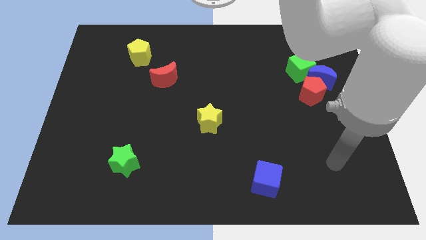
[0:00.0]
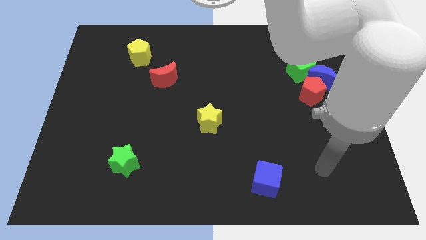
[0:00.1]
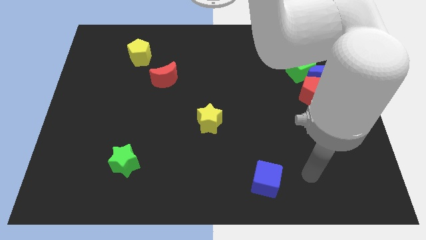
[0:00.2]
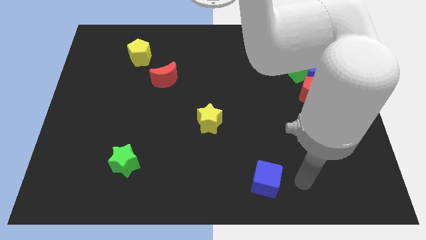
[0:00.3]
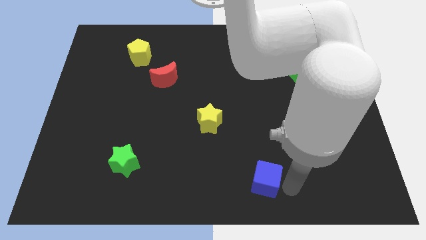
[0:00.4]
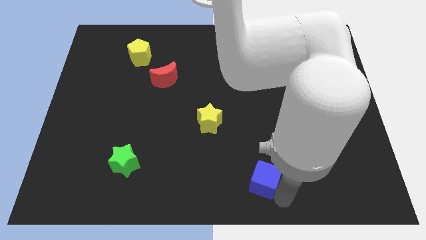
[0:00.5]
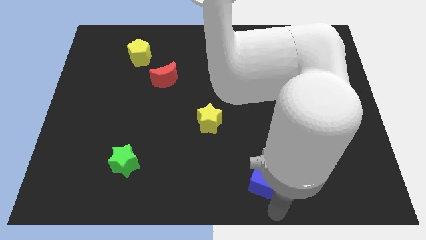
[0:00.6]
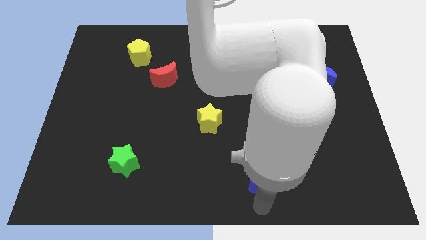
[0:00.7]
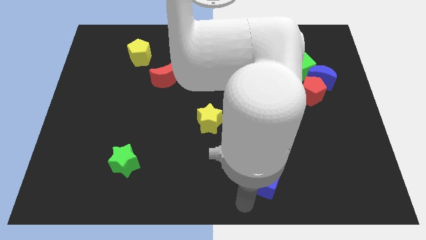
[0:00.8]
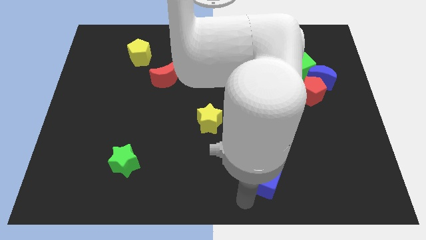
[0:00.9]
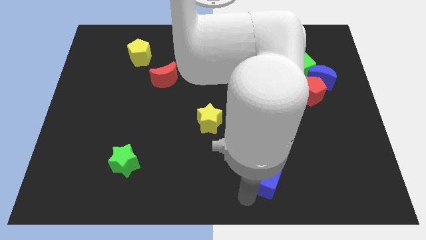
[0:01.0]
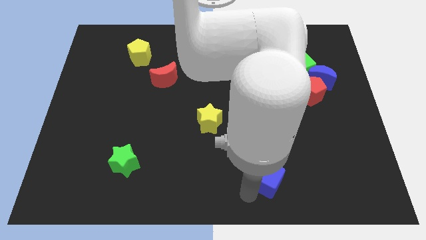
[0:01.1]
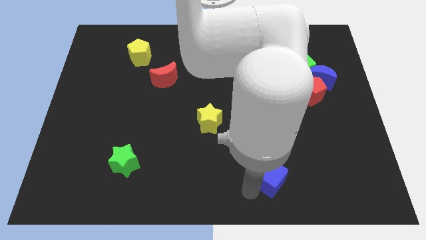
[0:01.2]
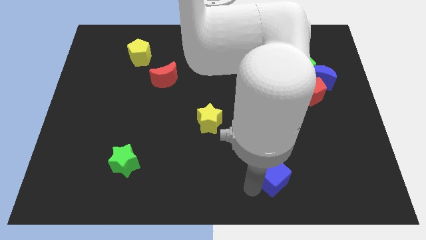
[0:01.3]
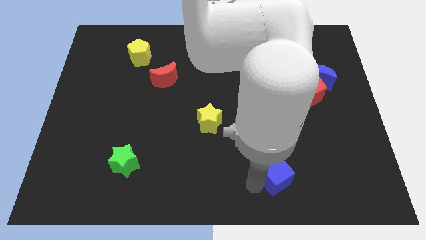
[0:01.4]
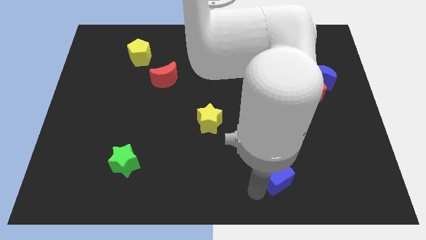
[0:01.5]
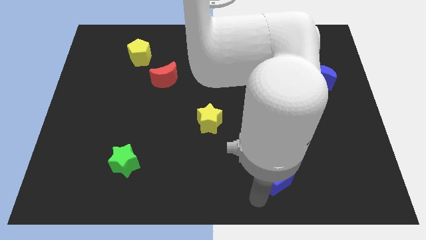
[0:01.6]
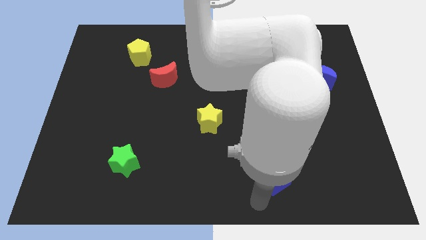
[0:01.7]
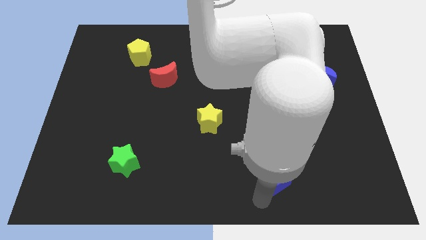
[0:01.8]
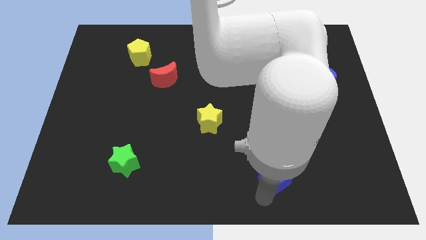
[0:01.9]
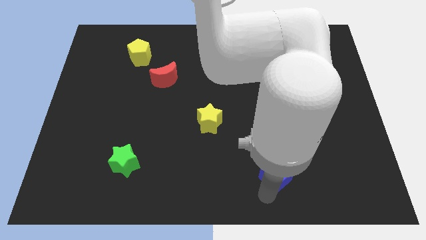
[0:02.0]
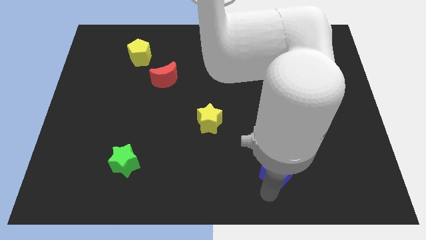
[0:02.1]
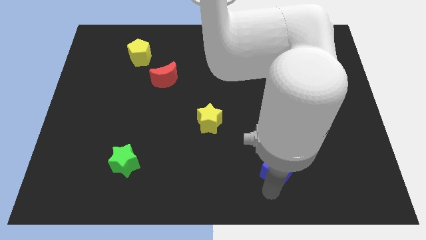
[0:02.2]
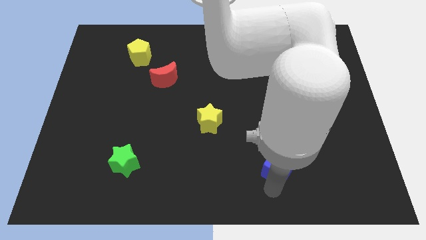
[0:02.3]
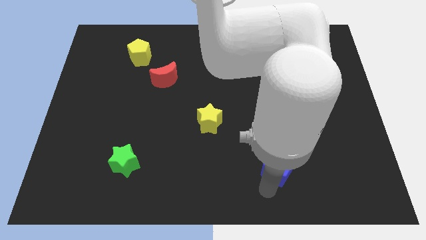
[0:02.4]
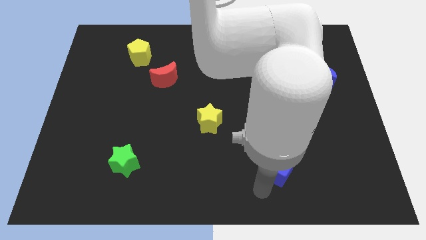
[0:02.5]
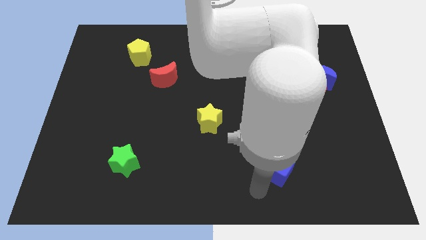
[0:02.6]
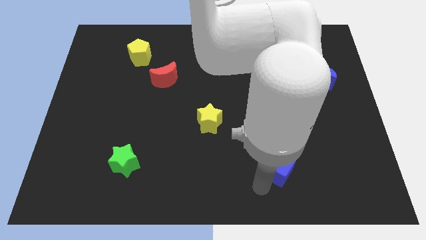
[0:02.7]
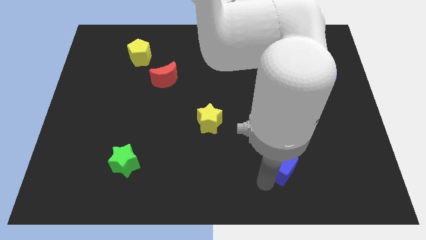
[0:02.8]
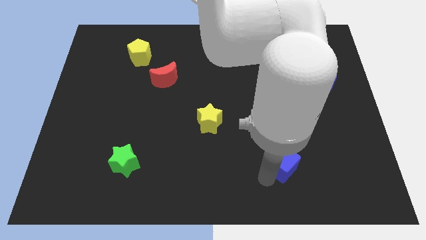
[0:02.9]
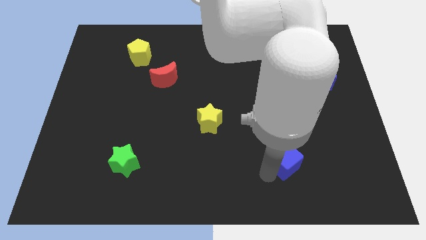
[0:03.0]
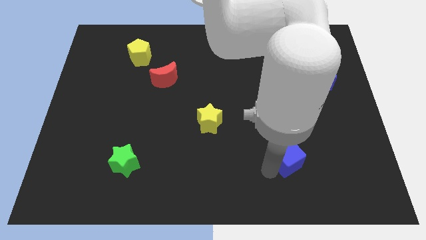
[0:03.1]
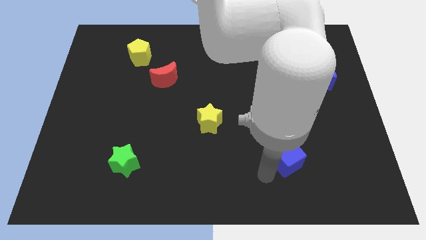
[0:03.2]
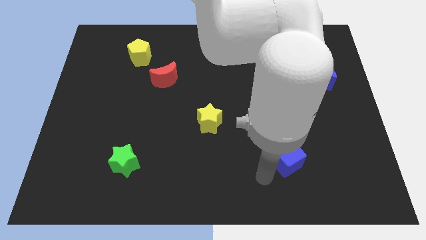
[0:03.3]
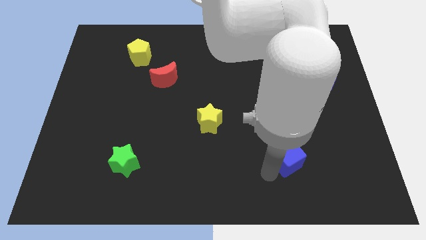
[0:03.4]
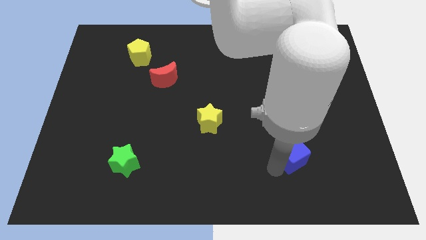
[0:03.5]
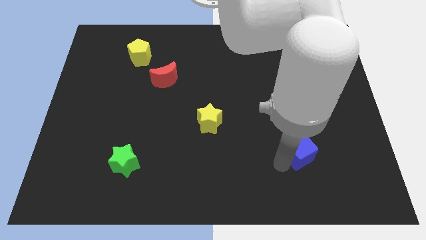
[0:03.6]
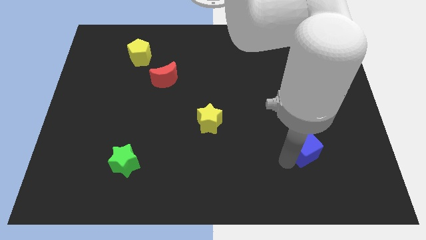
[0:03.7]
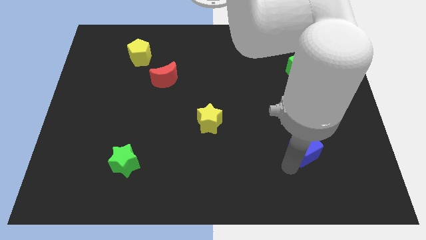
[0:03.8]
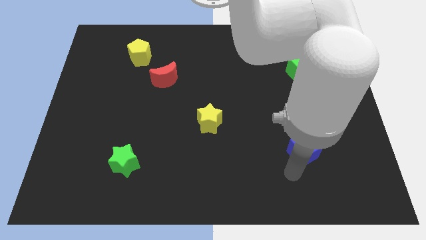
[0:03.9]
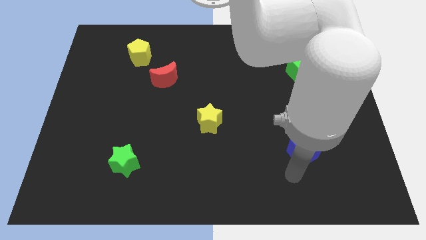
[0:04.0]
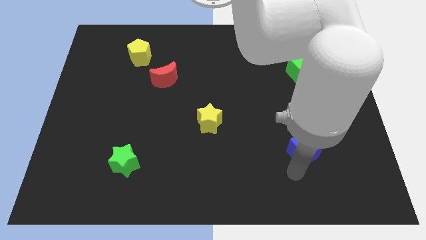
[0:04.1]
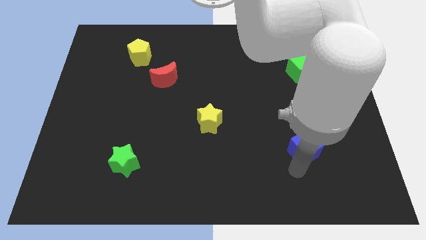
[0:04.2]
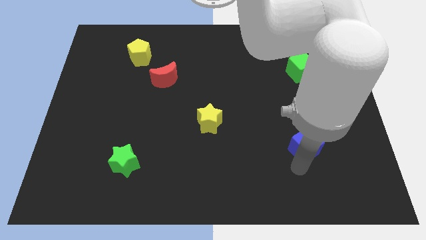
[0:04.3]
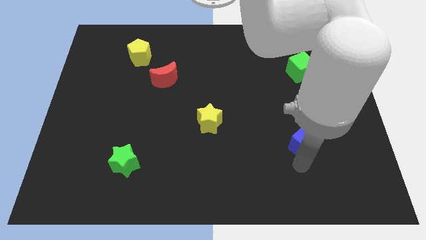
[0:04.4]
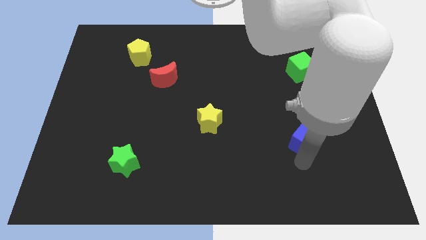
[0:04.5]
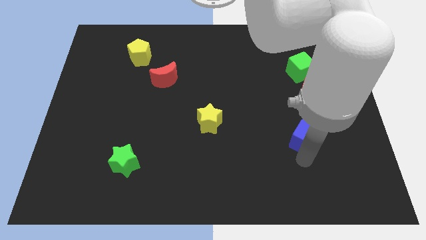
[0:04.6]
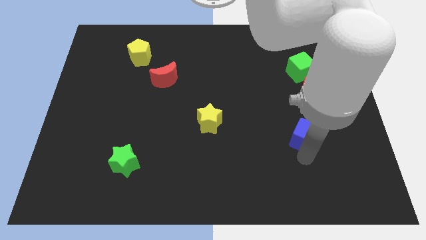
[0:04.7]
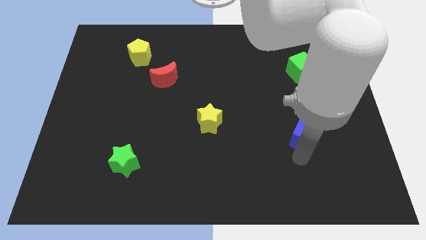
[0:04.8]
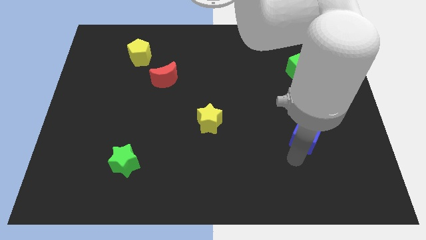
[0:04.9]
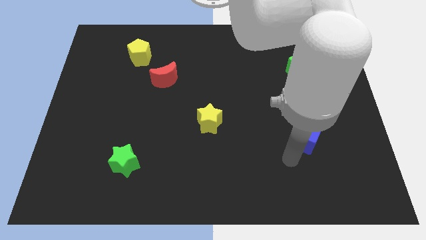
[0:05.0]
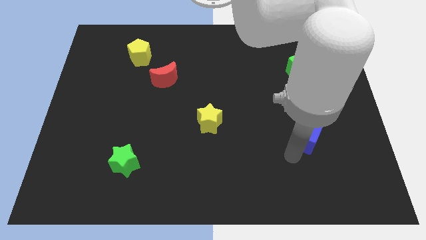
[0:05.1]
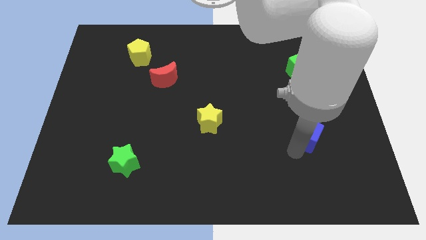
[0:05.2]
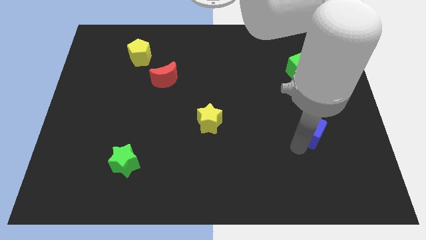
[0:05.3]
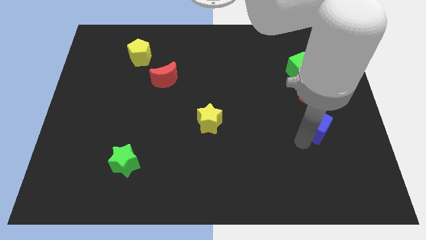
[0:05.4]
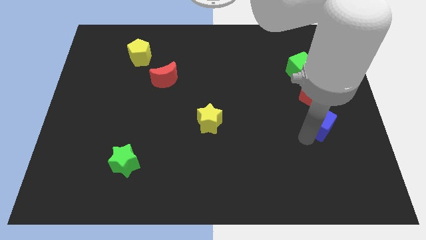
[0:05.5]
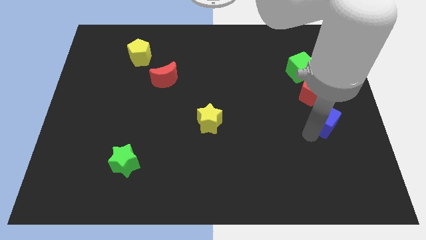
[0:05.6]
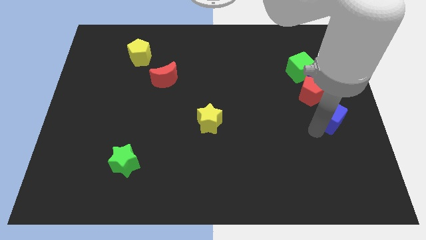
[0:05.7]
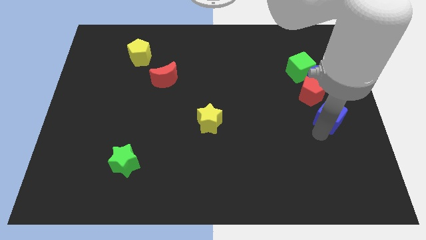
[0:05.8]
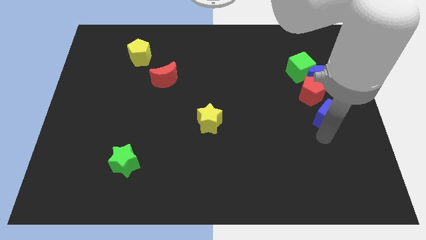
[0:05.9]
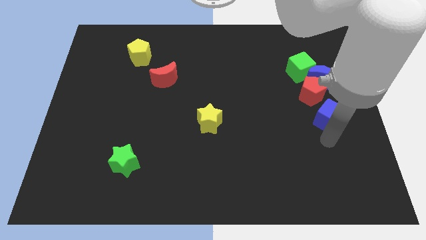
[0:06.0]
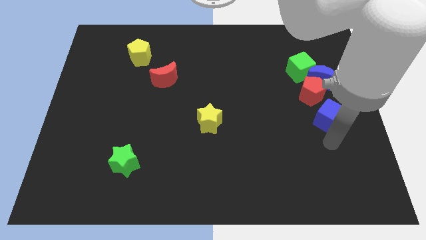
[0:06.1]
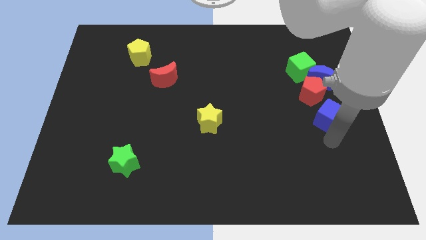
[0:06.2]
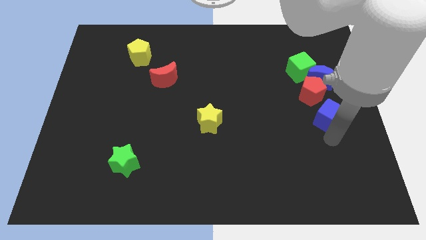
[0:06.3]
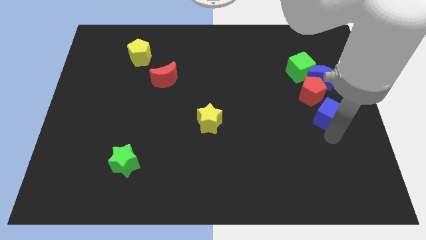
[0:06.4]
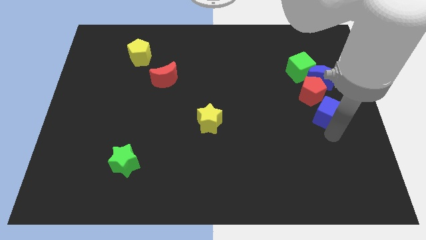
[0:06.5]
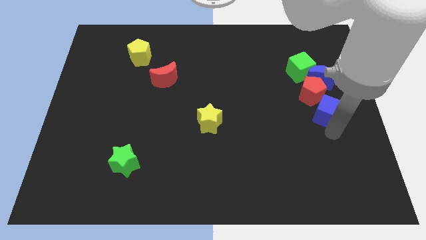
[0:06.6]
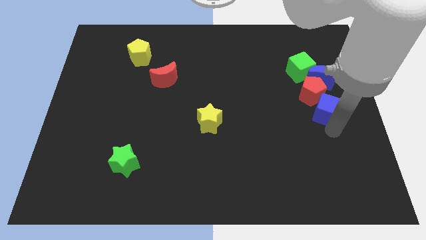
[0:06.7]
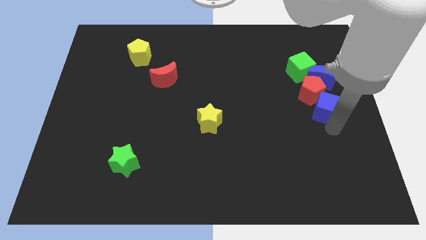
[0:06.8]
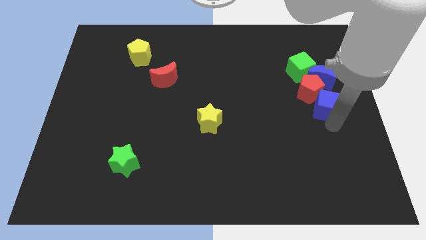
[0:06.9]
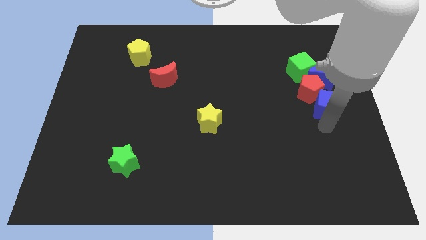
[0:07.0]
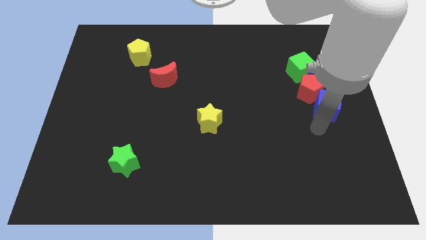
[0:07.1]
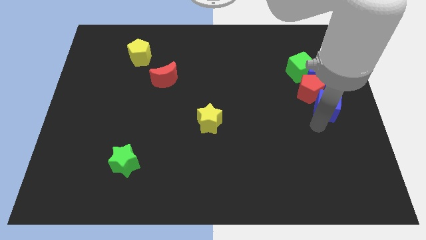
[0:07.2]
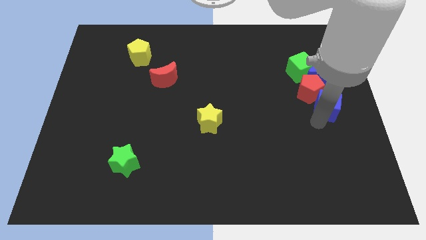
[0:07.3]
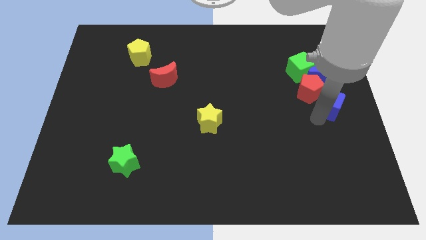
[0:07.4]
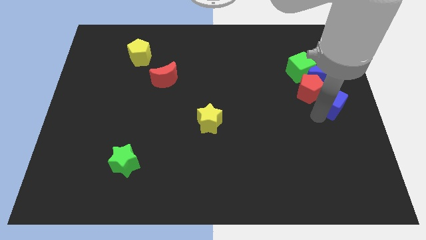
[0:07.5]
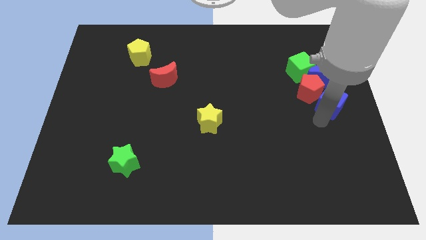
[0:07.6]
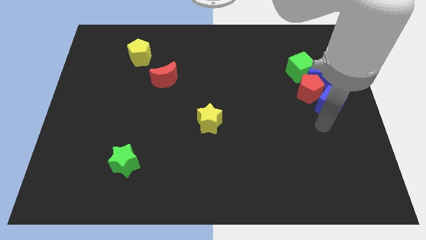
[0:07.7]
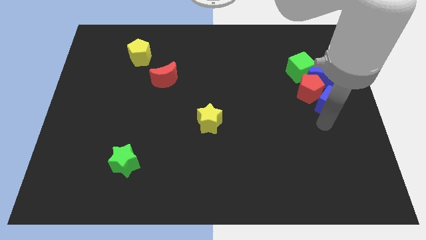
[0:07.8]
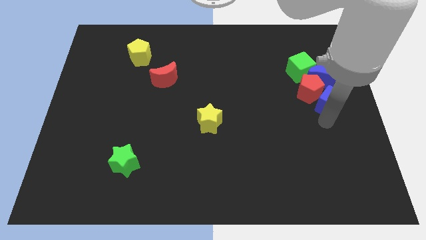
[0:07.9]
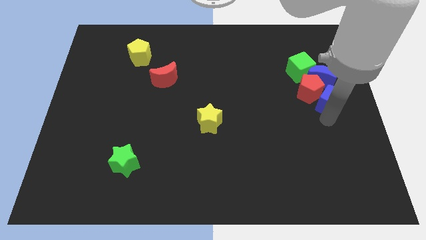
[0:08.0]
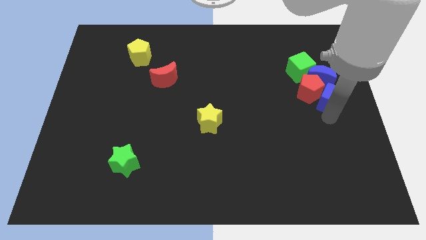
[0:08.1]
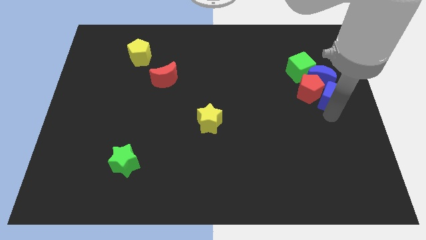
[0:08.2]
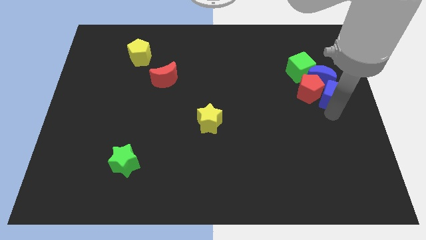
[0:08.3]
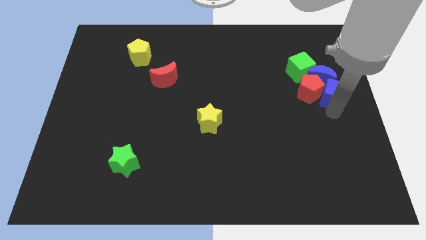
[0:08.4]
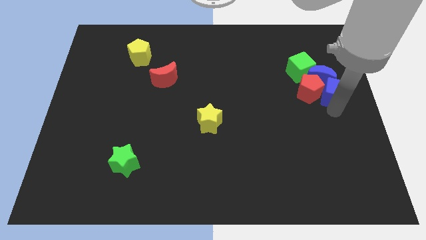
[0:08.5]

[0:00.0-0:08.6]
push the blue cube to the top right of the red pentagon
